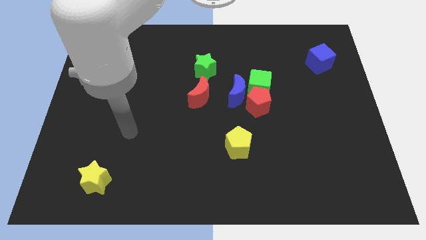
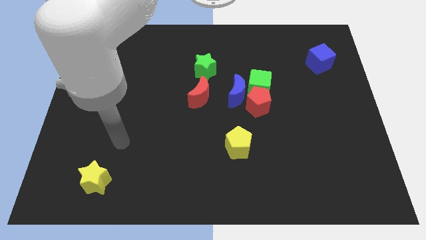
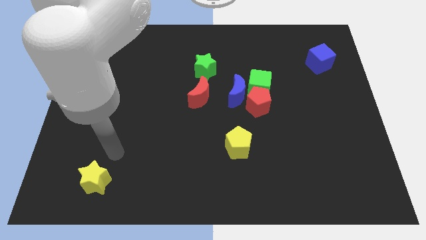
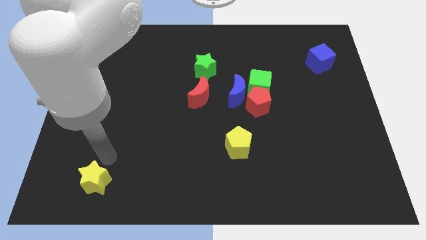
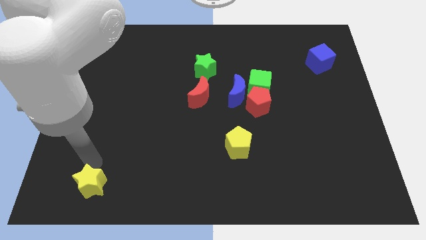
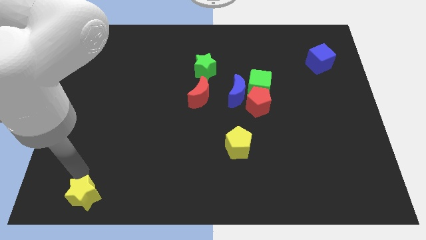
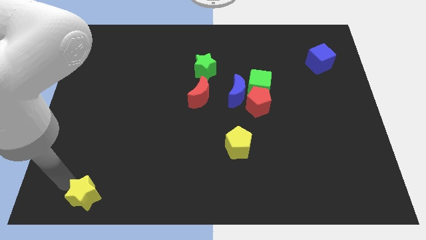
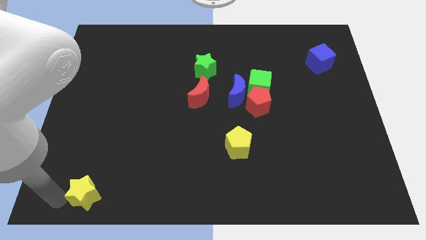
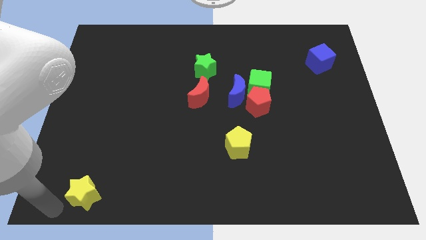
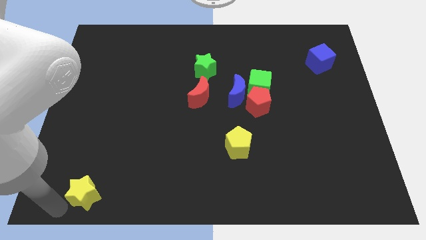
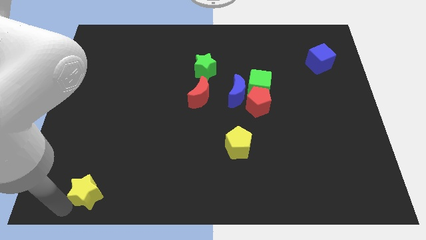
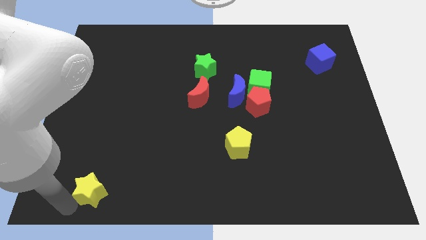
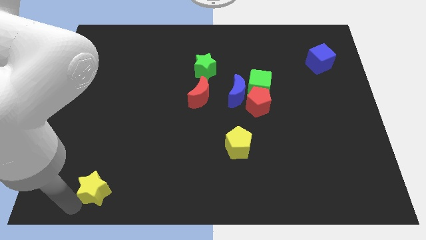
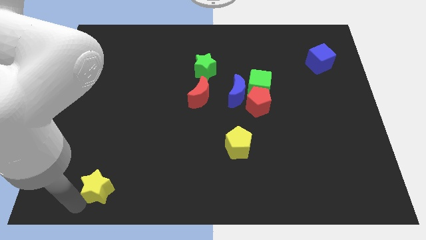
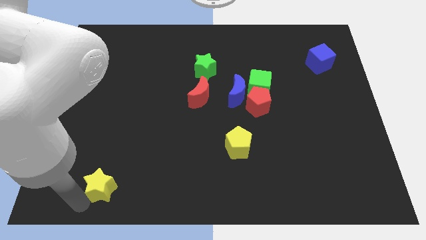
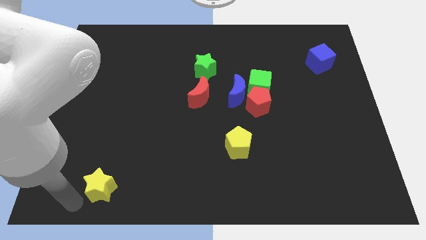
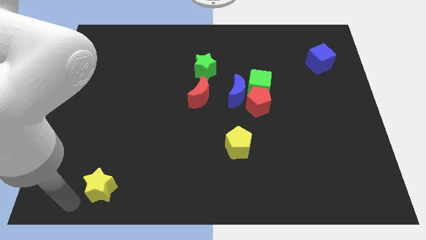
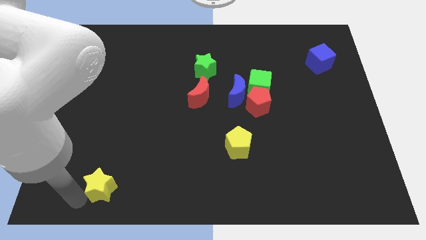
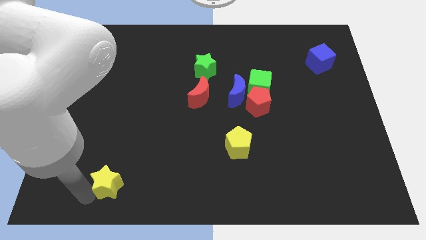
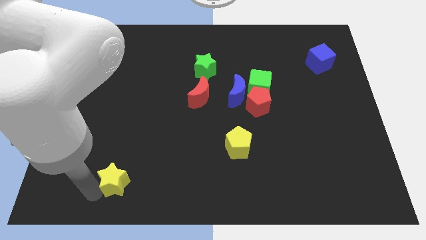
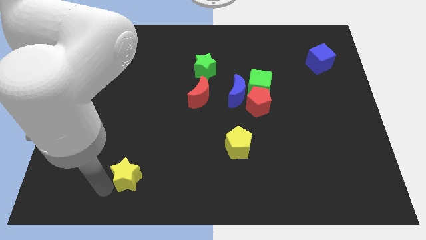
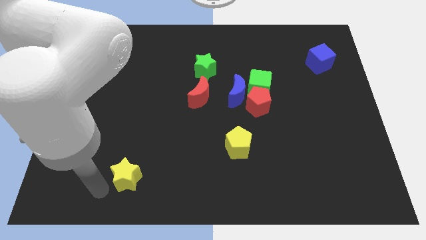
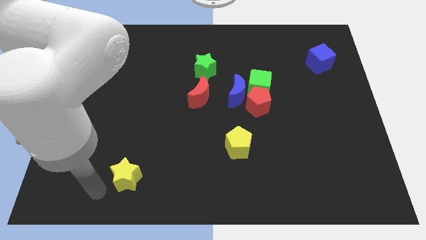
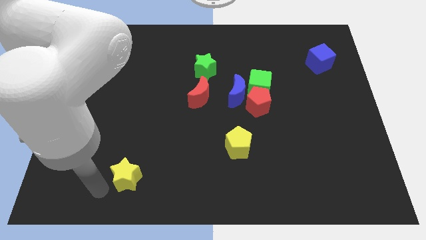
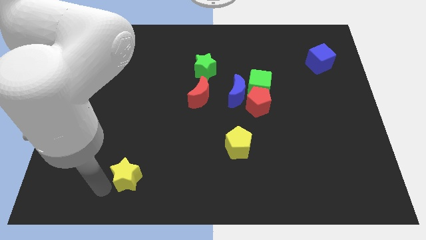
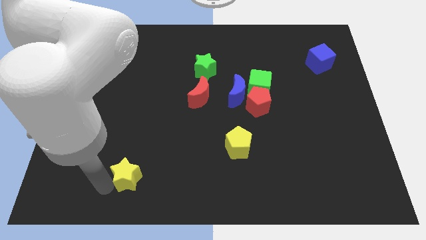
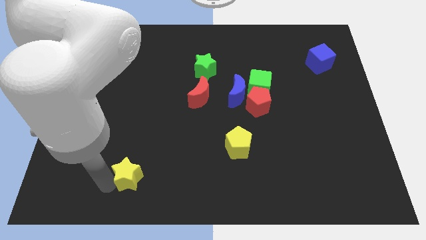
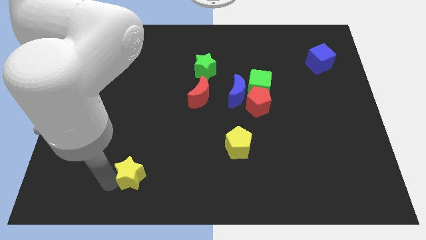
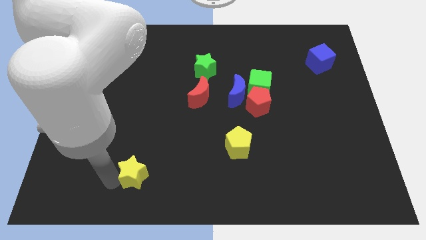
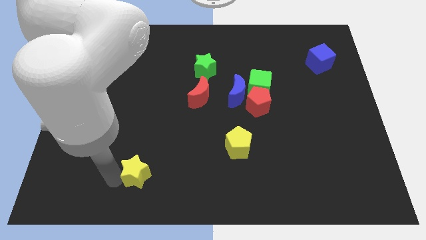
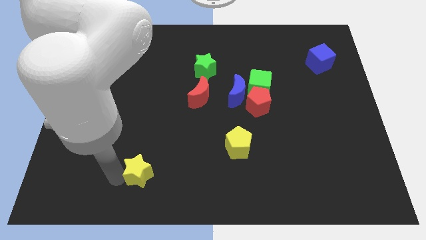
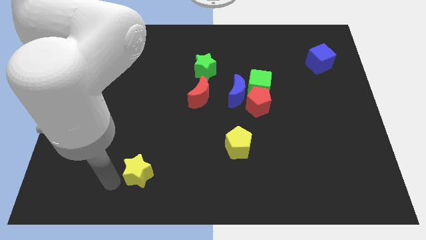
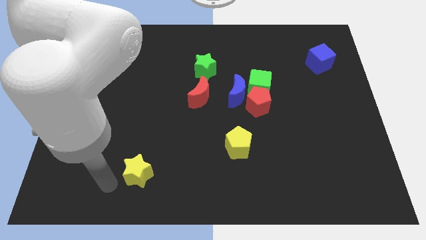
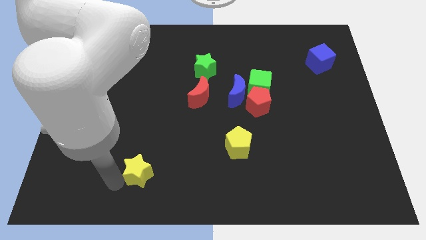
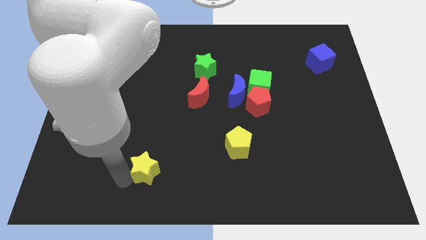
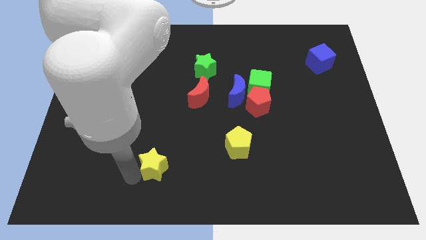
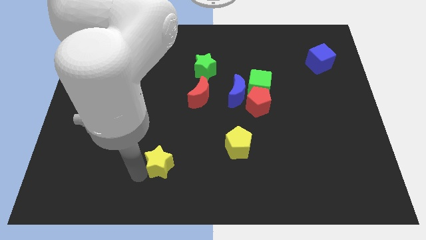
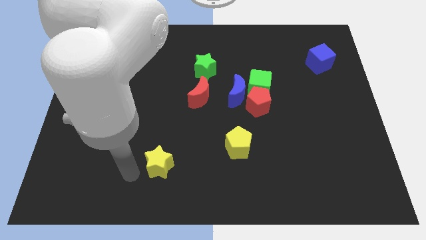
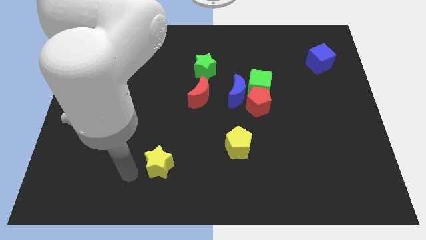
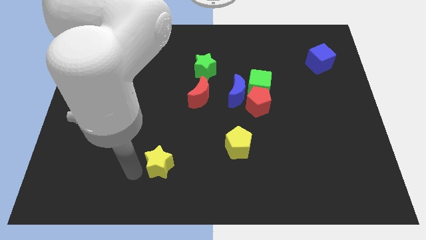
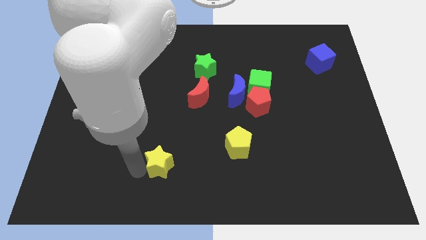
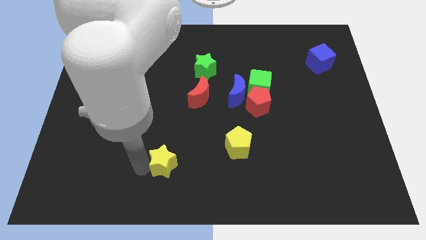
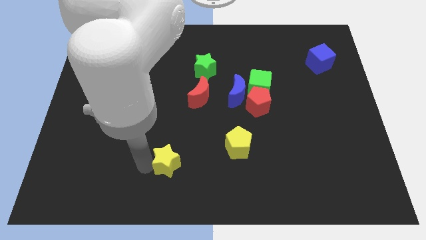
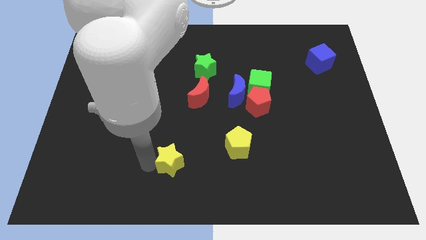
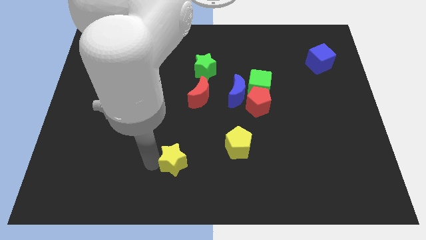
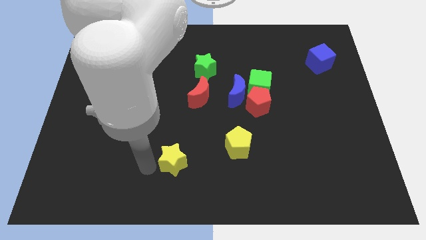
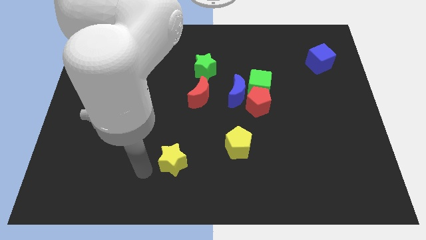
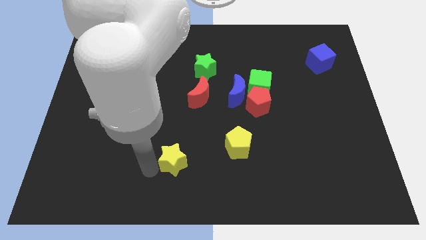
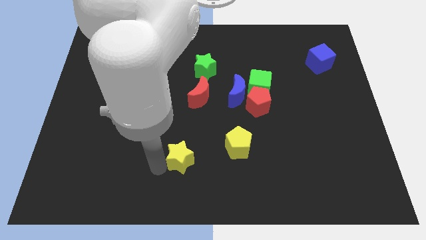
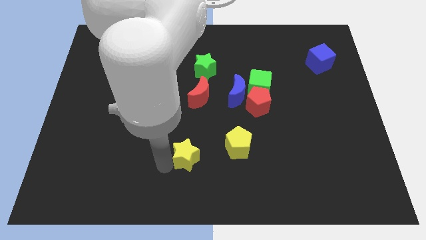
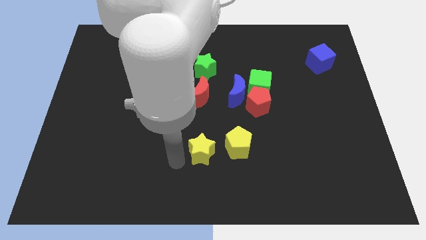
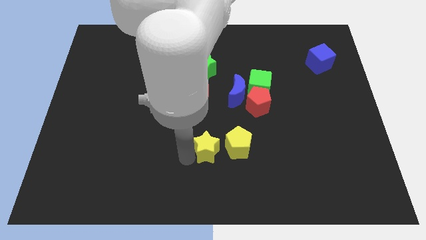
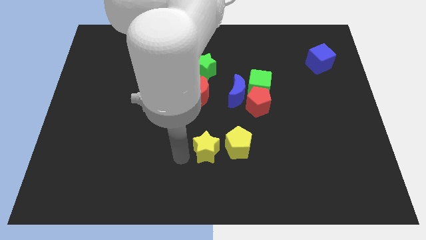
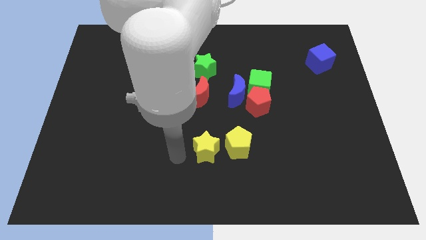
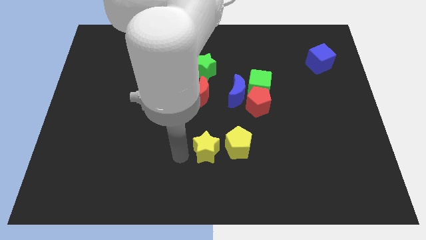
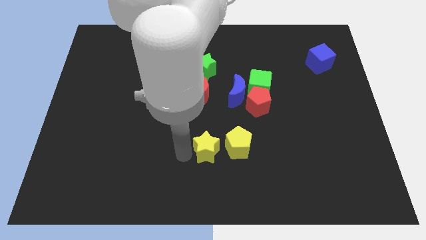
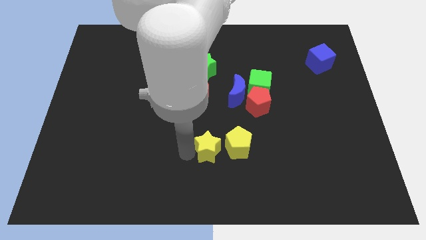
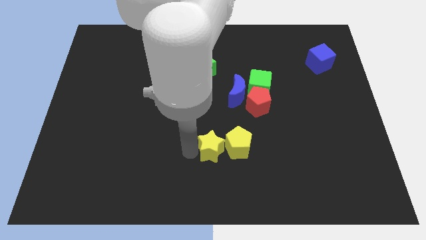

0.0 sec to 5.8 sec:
push the yellow star to the yellow pentagon

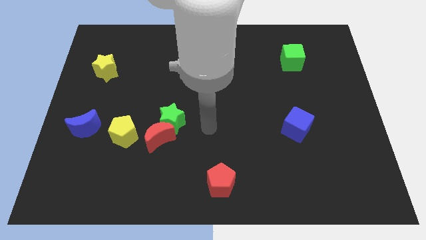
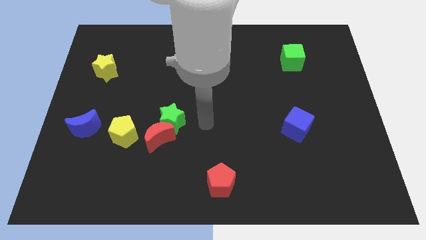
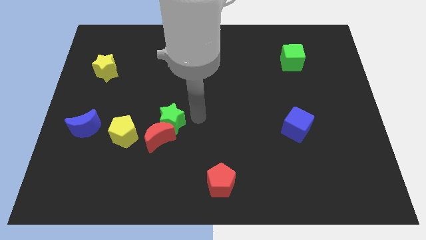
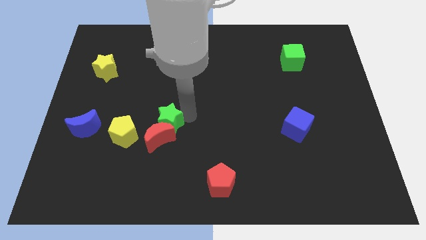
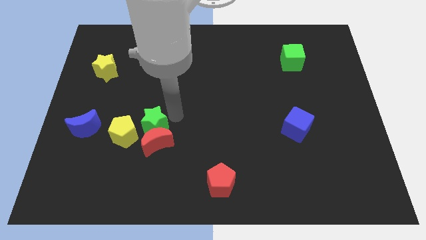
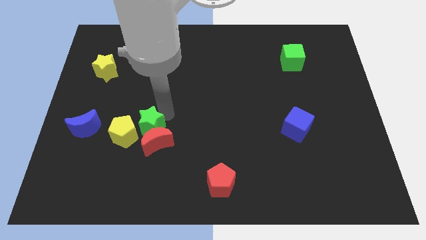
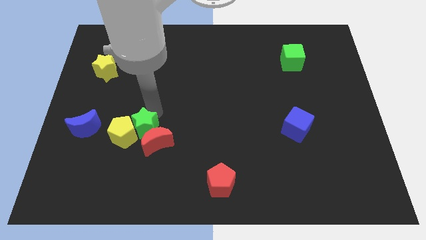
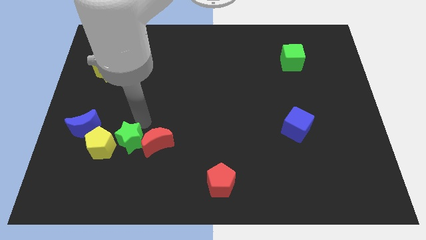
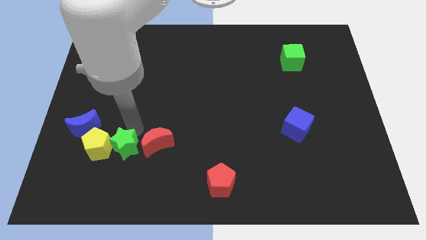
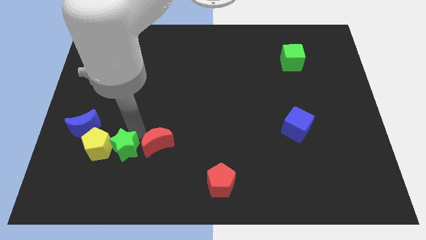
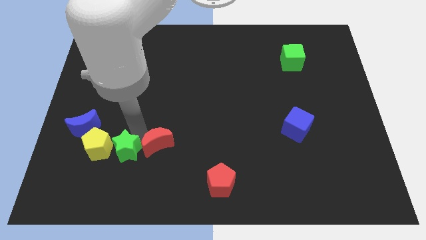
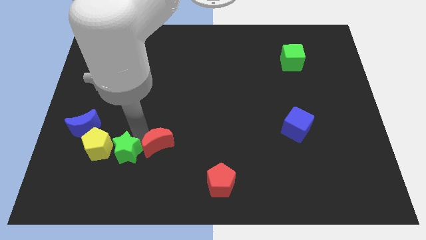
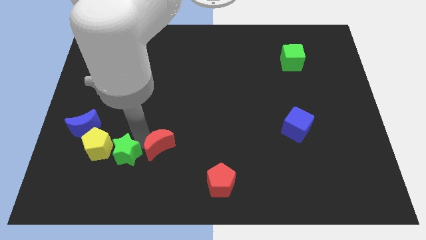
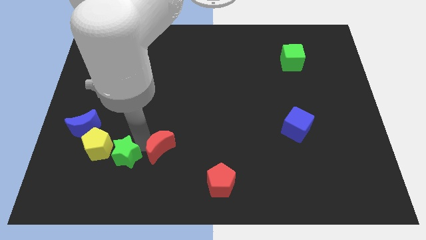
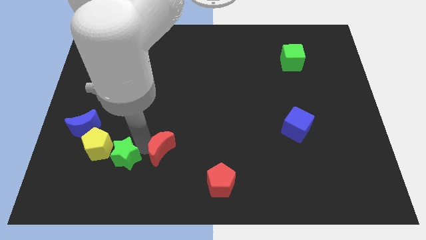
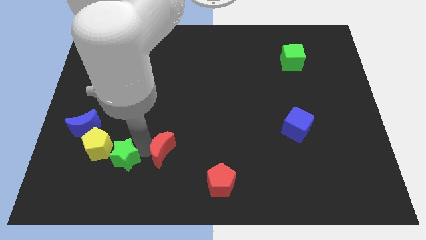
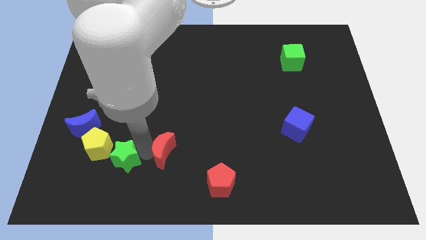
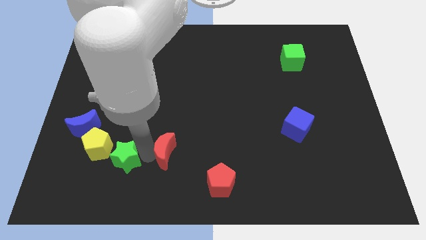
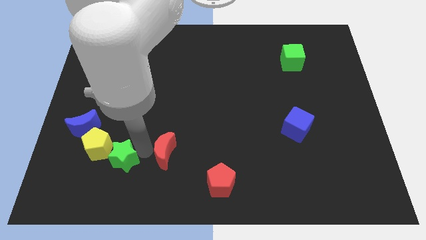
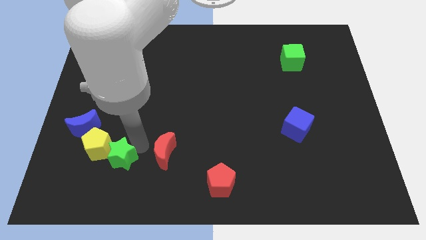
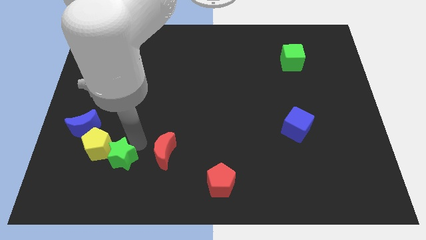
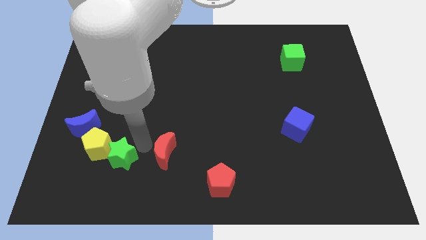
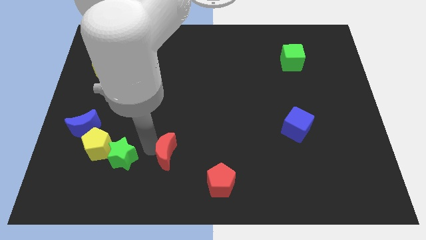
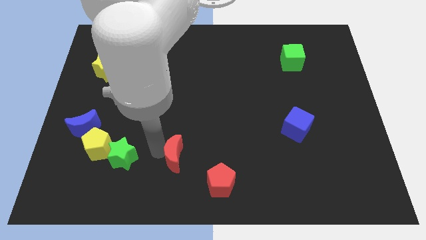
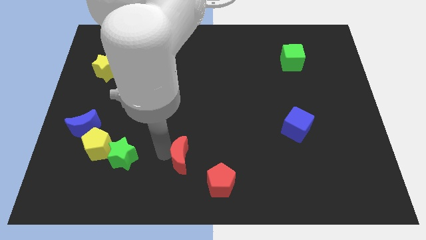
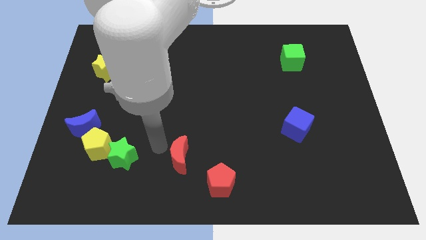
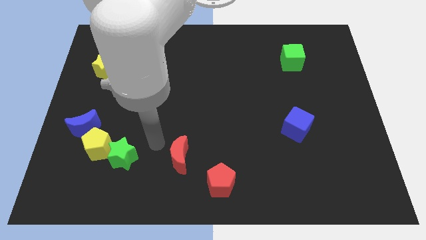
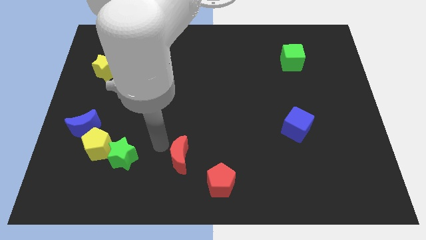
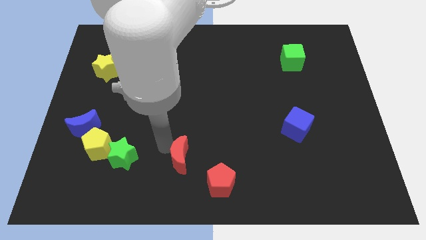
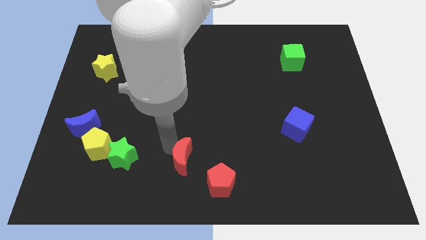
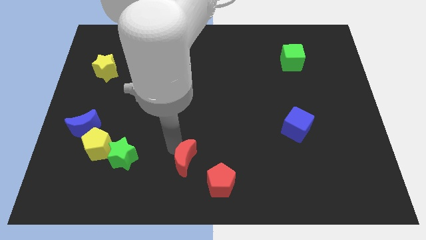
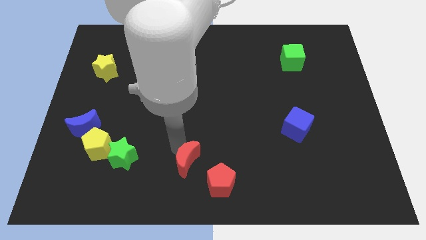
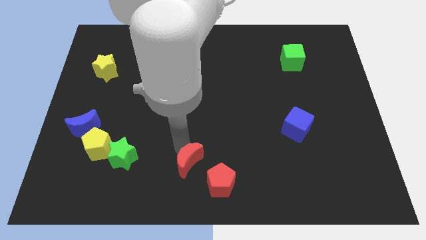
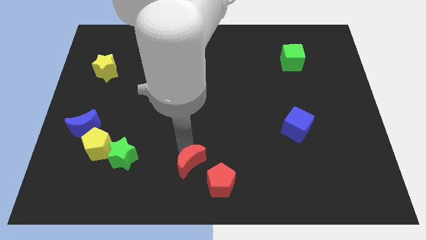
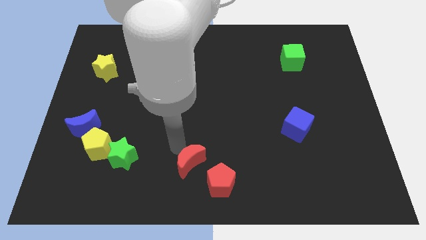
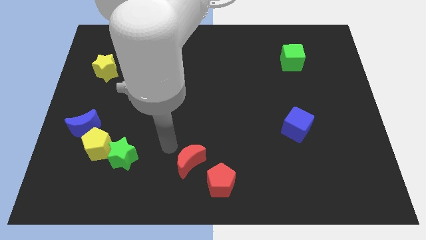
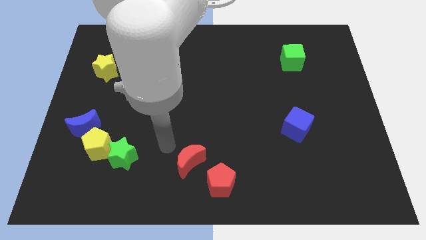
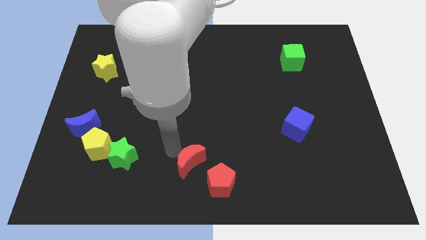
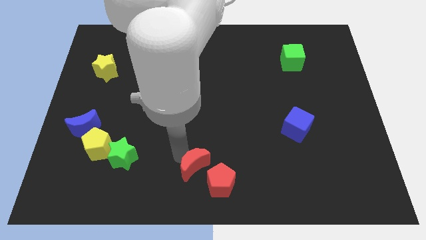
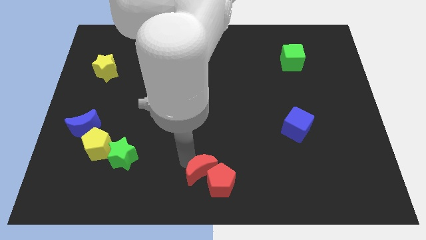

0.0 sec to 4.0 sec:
slide the red moon next to the red pentagon
